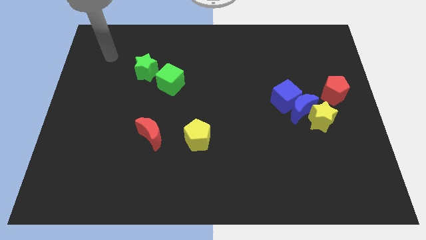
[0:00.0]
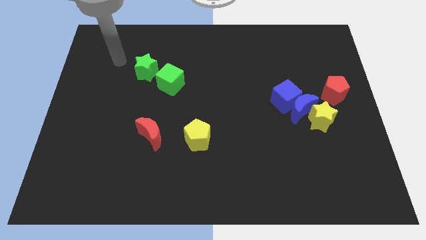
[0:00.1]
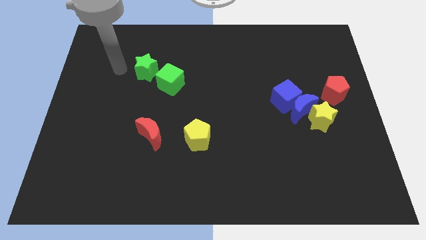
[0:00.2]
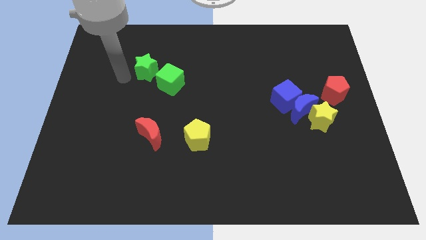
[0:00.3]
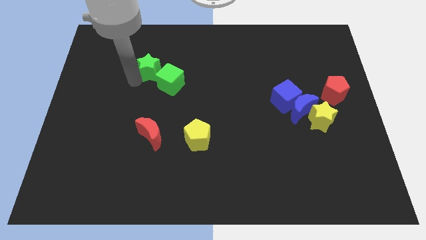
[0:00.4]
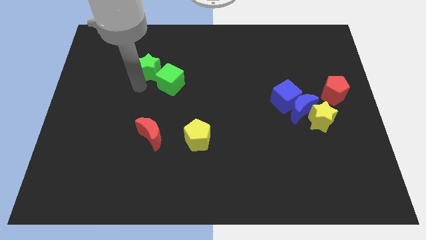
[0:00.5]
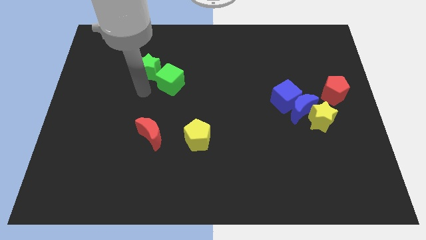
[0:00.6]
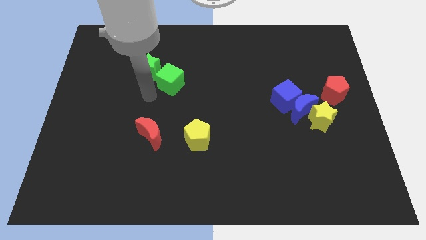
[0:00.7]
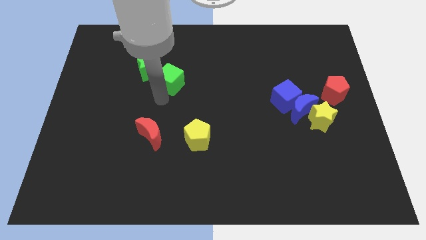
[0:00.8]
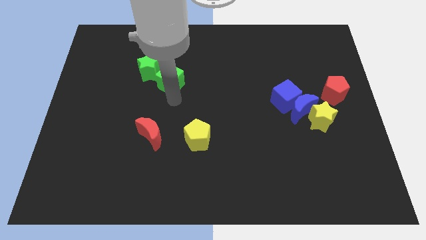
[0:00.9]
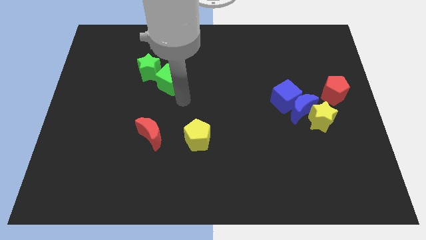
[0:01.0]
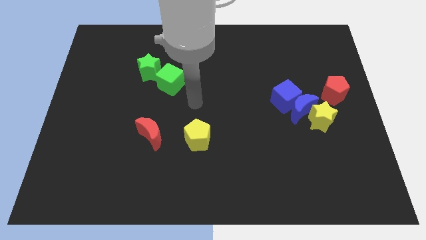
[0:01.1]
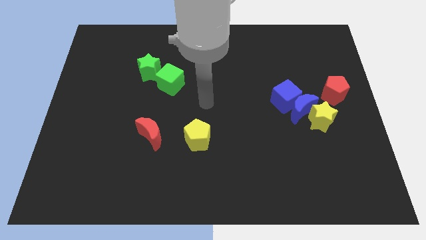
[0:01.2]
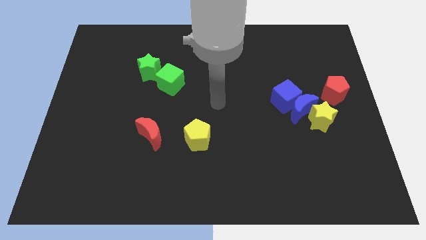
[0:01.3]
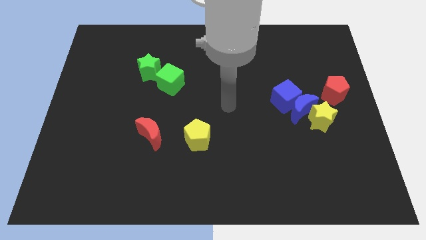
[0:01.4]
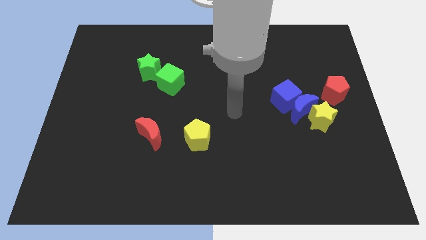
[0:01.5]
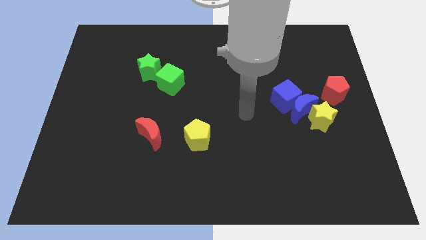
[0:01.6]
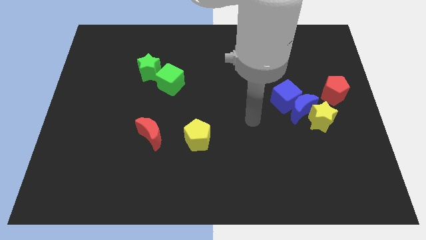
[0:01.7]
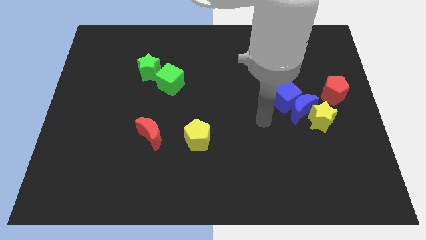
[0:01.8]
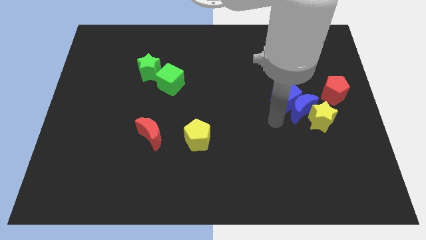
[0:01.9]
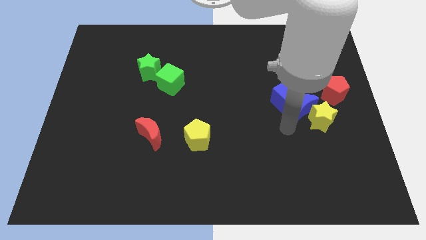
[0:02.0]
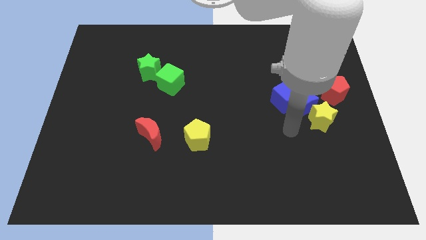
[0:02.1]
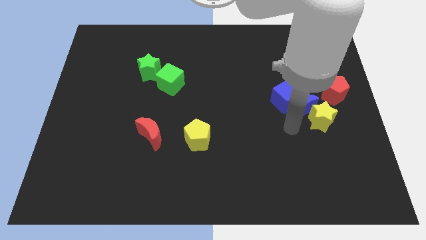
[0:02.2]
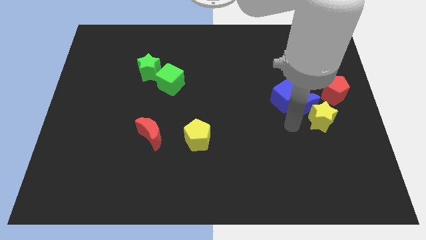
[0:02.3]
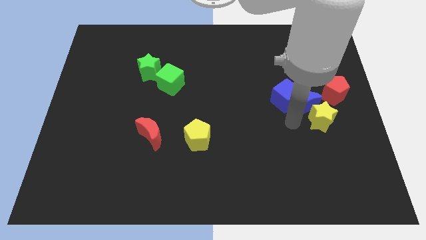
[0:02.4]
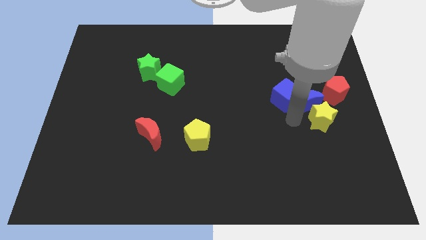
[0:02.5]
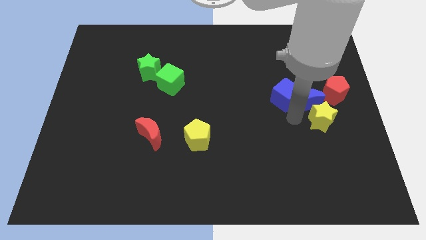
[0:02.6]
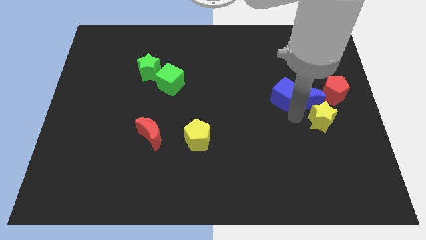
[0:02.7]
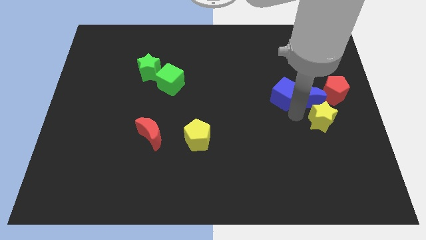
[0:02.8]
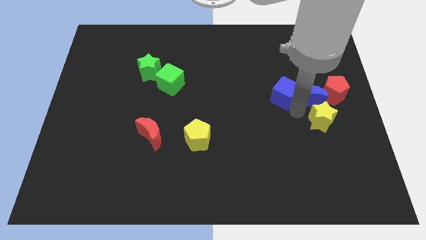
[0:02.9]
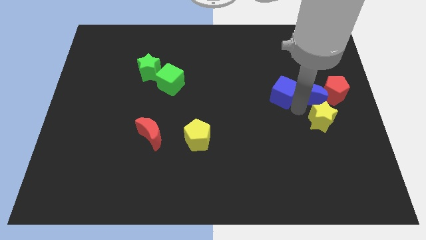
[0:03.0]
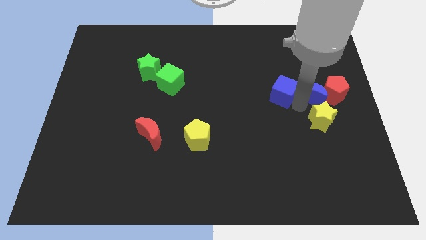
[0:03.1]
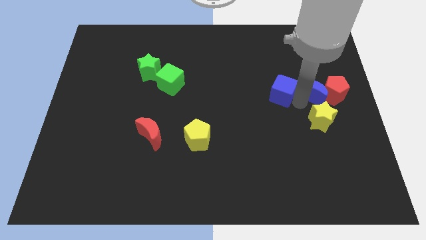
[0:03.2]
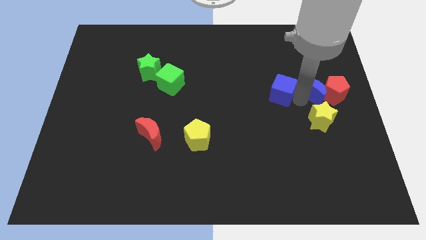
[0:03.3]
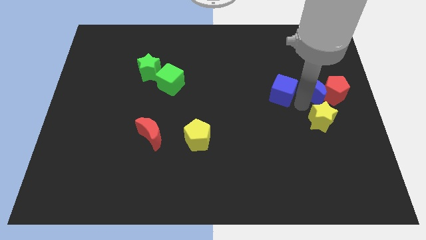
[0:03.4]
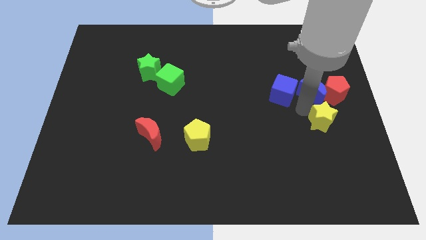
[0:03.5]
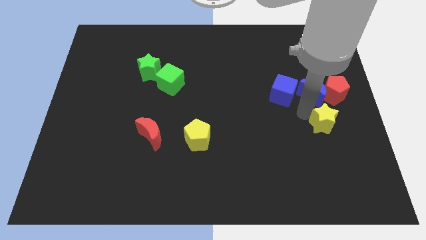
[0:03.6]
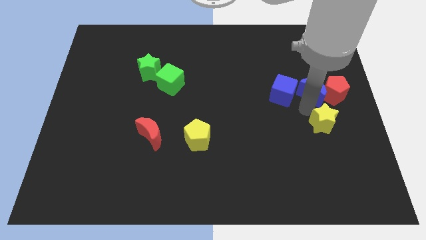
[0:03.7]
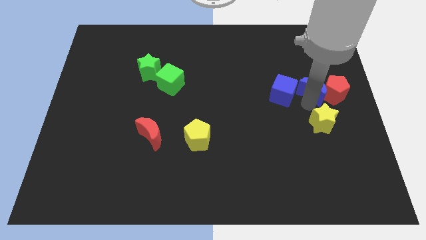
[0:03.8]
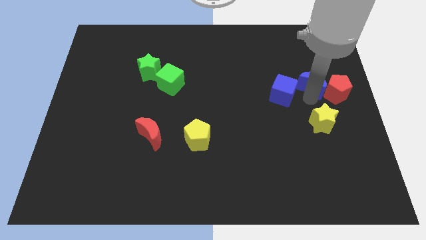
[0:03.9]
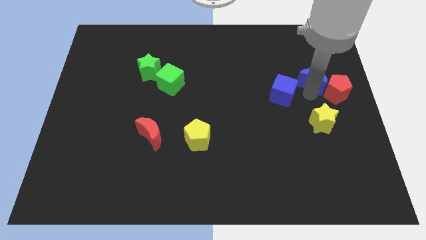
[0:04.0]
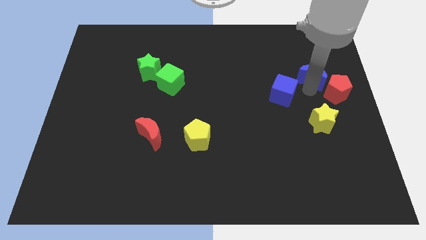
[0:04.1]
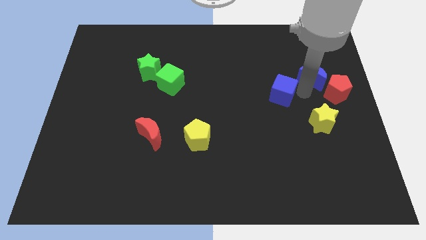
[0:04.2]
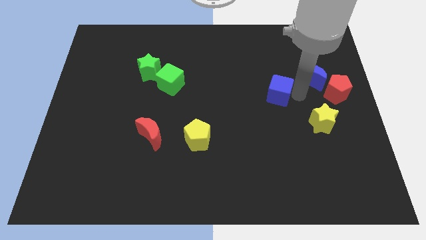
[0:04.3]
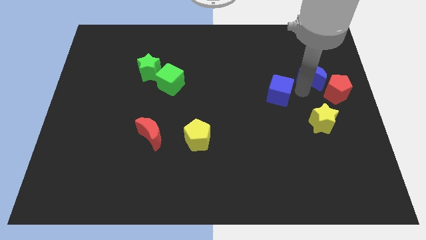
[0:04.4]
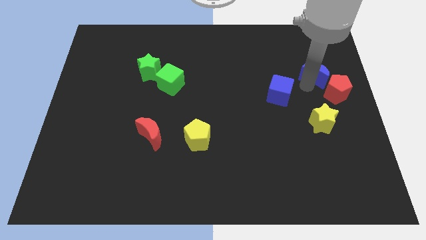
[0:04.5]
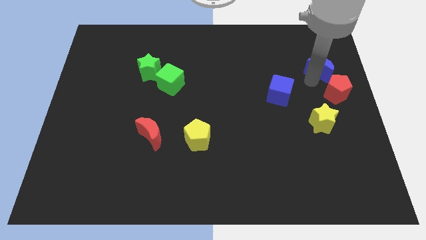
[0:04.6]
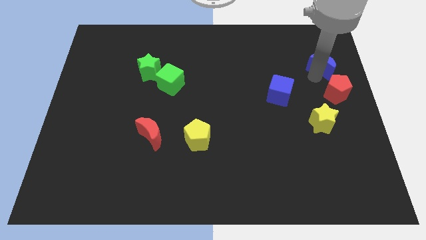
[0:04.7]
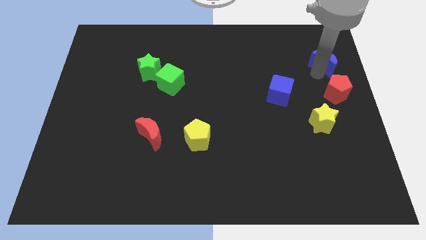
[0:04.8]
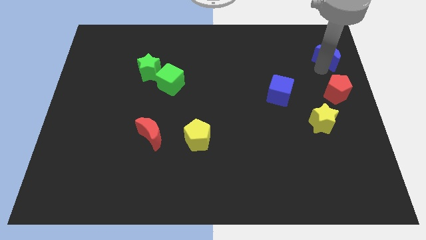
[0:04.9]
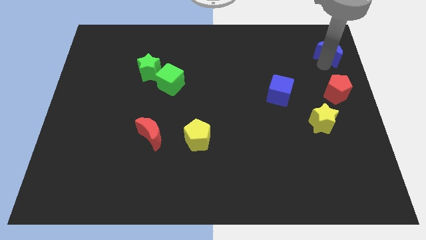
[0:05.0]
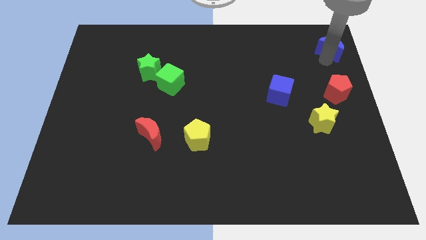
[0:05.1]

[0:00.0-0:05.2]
move the blue moon to the upper right corner

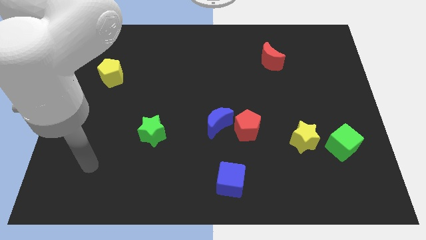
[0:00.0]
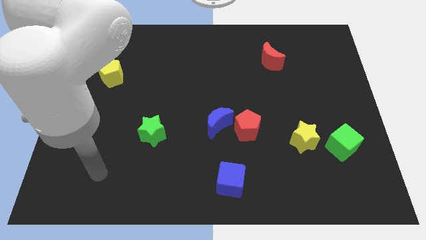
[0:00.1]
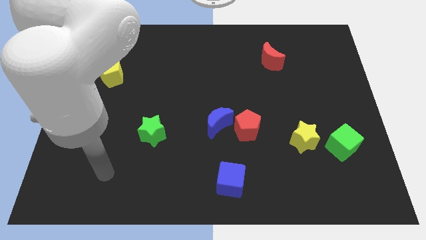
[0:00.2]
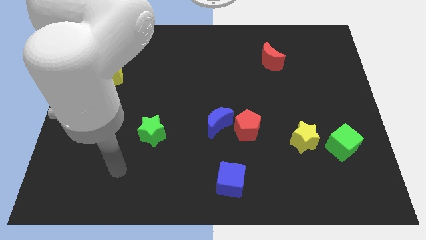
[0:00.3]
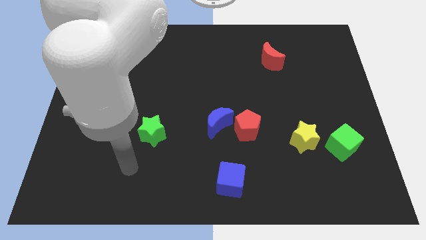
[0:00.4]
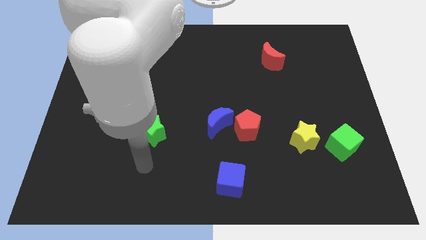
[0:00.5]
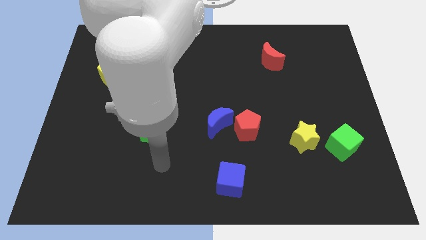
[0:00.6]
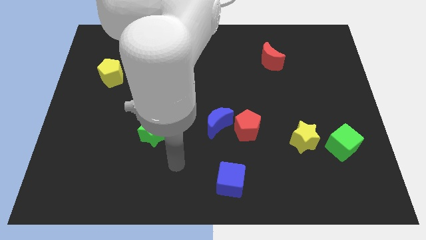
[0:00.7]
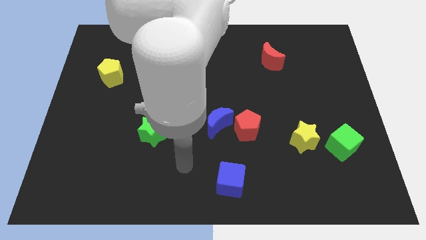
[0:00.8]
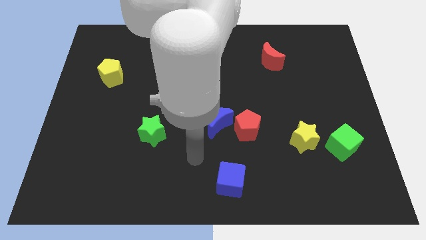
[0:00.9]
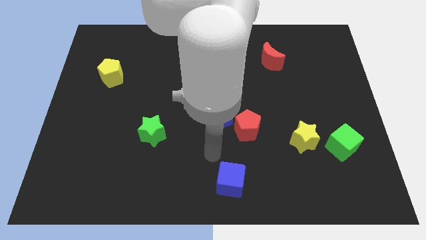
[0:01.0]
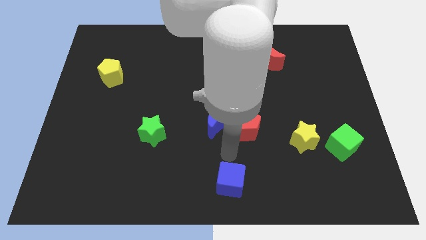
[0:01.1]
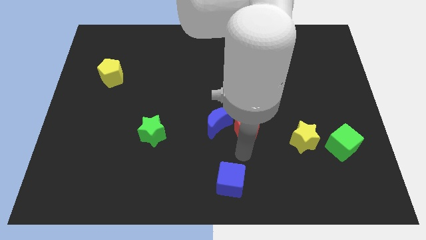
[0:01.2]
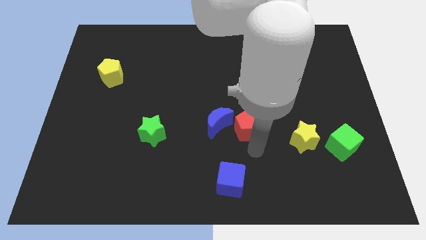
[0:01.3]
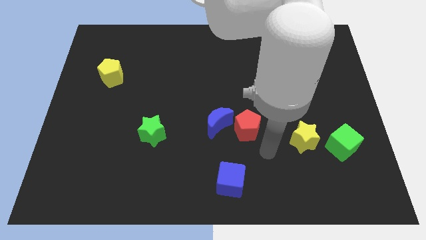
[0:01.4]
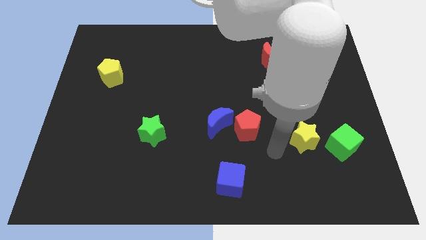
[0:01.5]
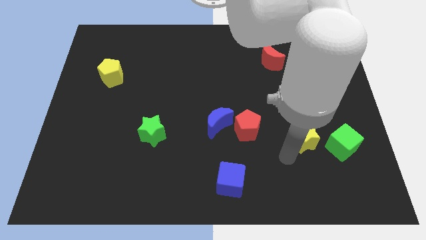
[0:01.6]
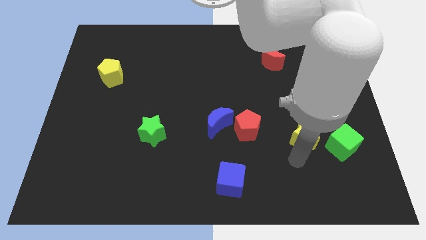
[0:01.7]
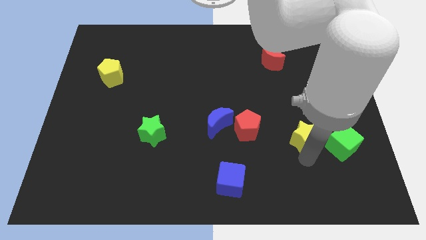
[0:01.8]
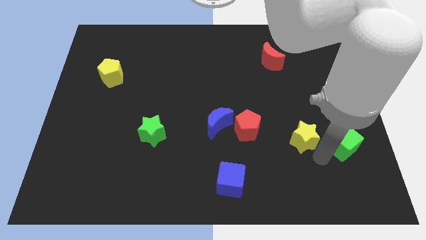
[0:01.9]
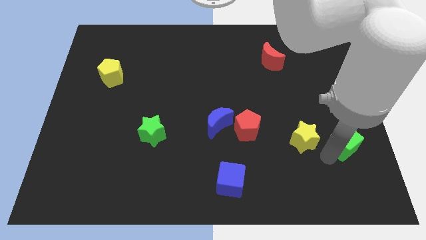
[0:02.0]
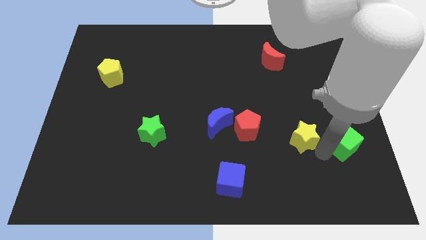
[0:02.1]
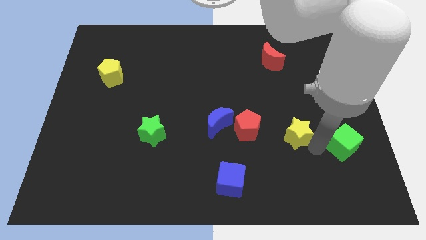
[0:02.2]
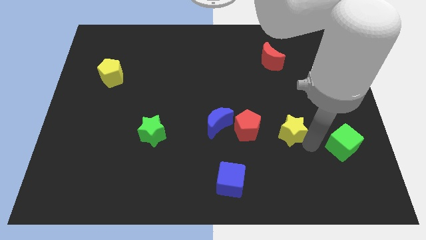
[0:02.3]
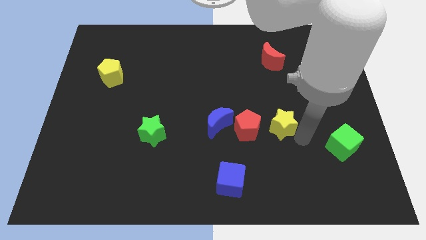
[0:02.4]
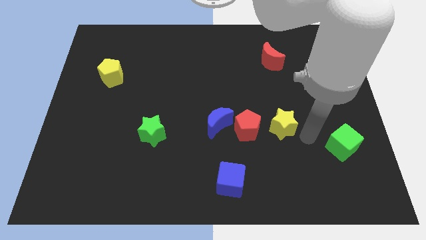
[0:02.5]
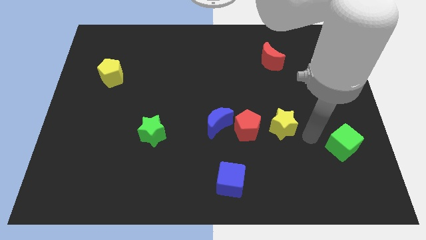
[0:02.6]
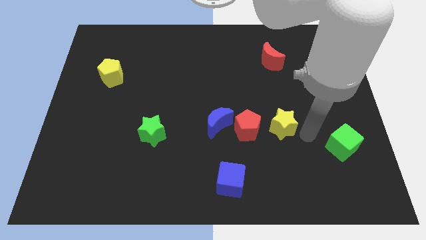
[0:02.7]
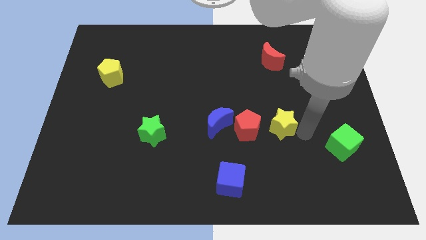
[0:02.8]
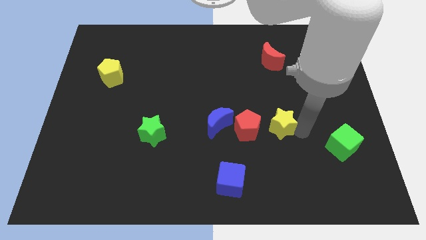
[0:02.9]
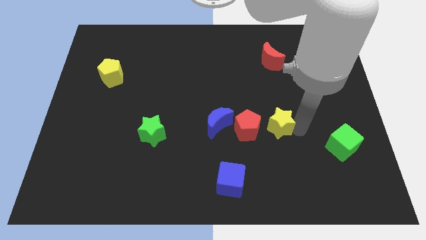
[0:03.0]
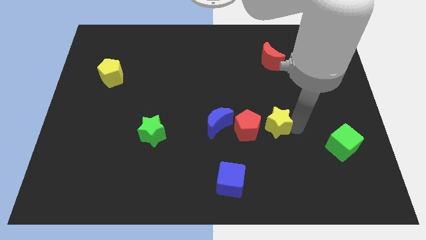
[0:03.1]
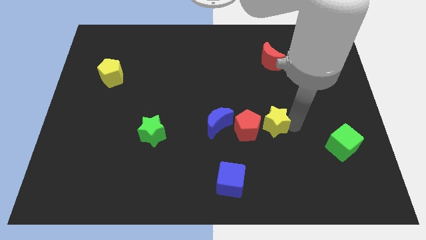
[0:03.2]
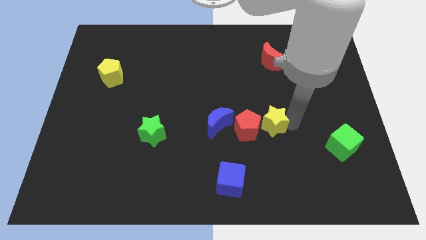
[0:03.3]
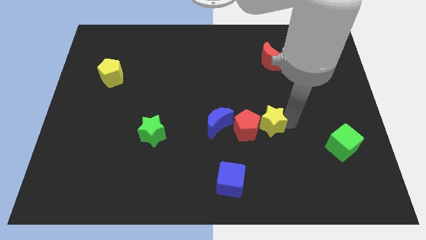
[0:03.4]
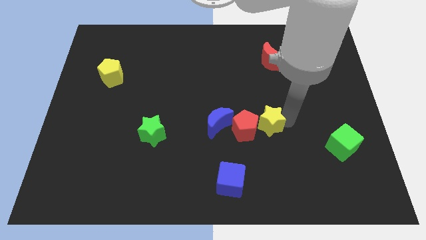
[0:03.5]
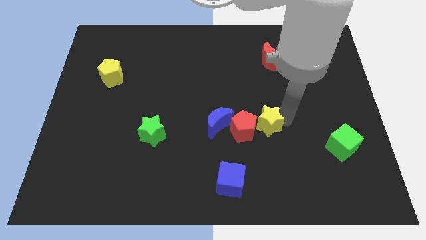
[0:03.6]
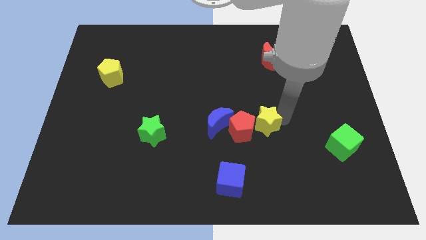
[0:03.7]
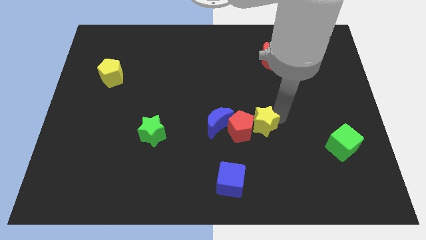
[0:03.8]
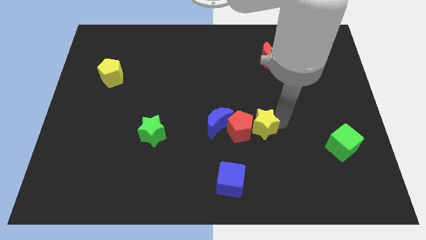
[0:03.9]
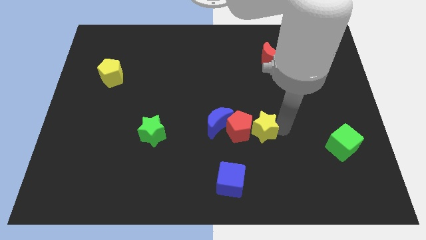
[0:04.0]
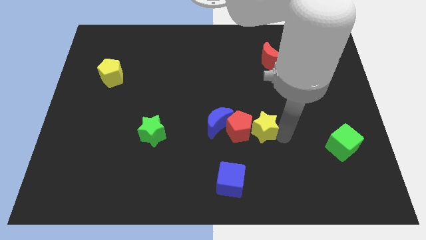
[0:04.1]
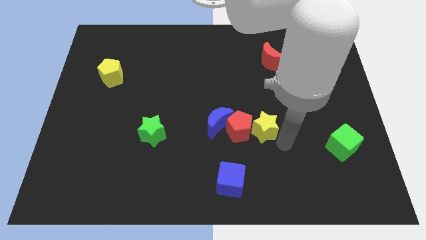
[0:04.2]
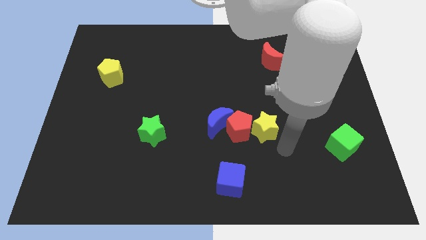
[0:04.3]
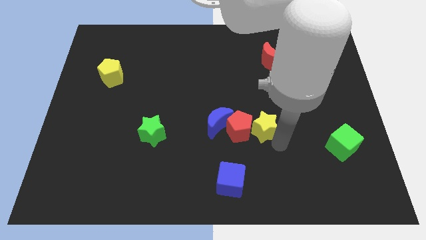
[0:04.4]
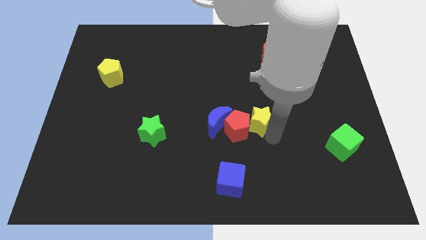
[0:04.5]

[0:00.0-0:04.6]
push the yellow star to the middle of the board
